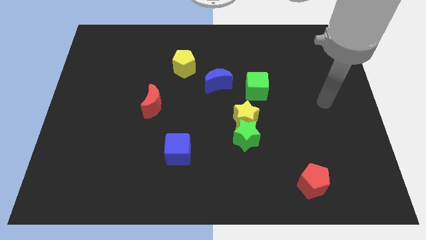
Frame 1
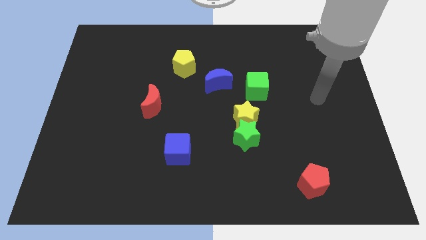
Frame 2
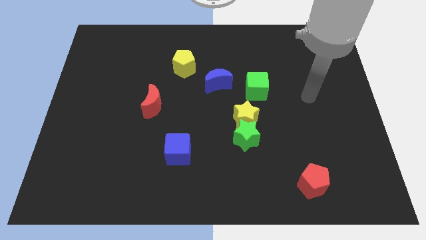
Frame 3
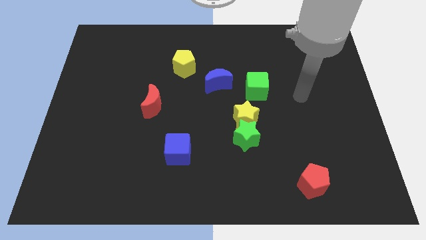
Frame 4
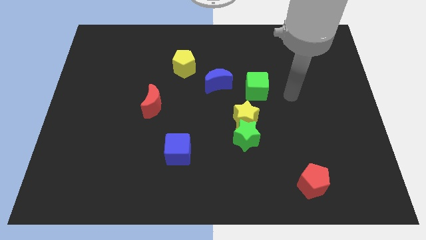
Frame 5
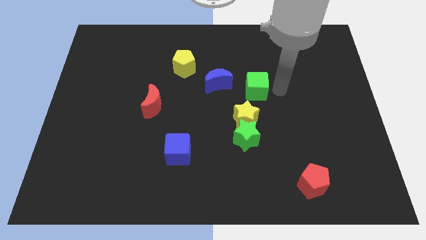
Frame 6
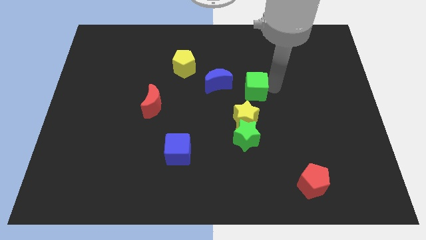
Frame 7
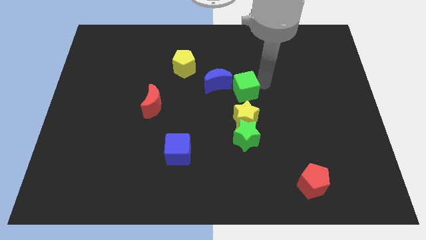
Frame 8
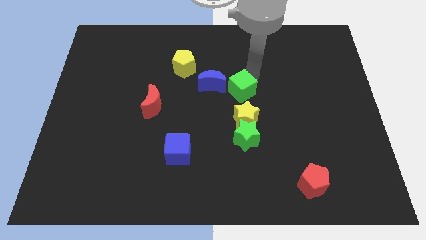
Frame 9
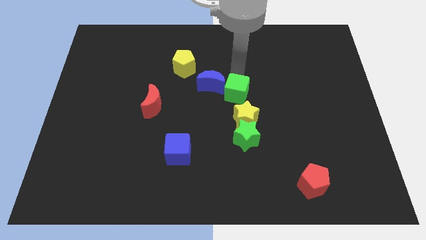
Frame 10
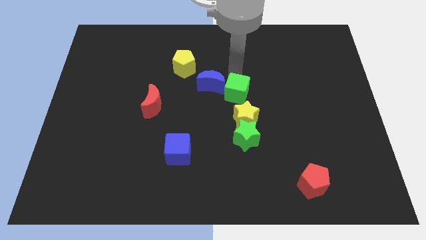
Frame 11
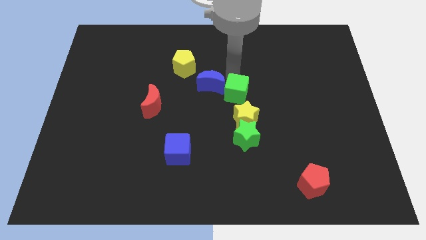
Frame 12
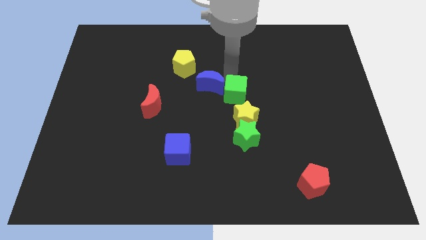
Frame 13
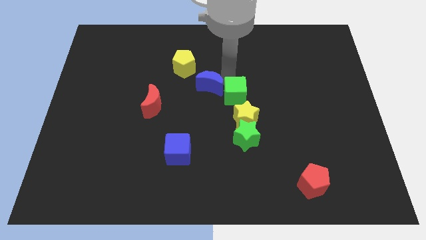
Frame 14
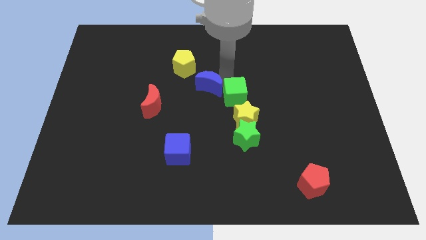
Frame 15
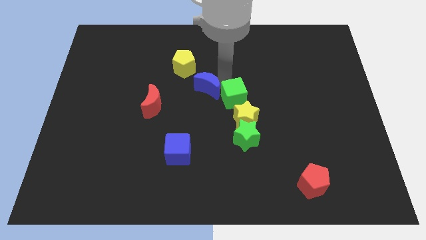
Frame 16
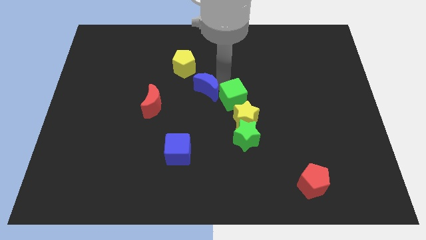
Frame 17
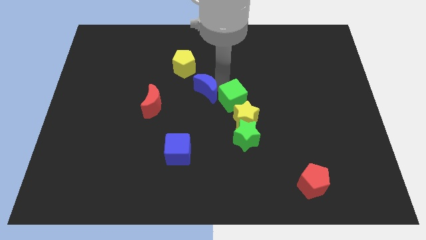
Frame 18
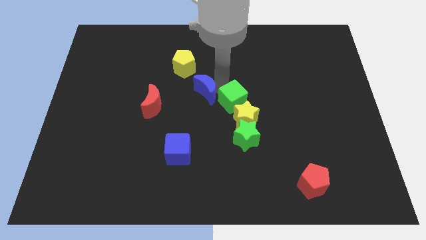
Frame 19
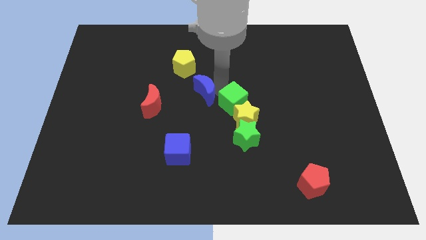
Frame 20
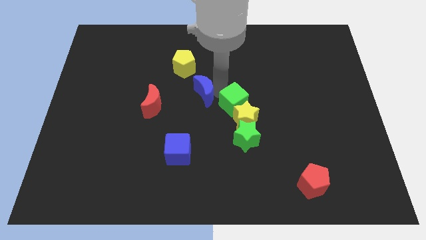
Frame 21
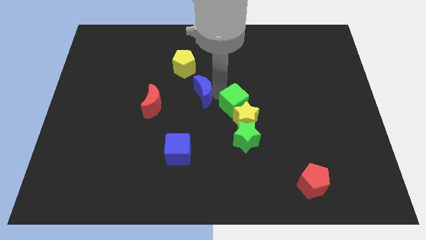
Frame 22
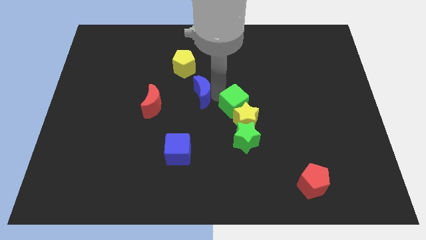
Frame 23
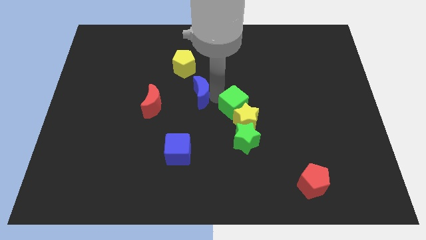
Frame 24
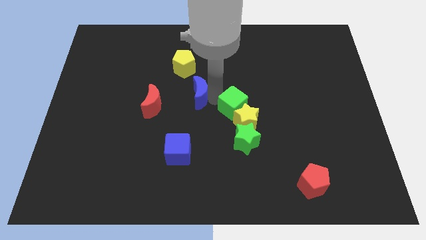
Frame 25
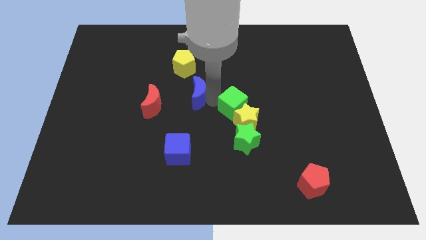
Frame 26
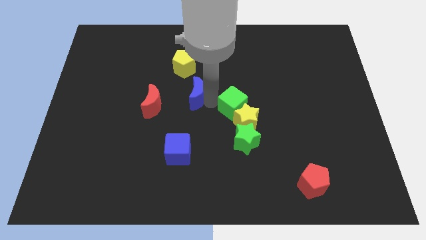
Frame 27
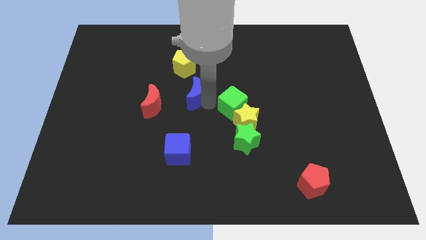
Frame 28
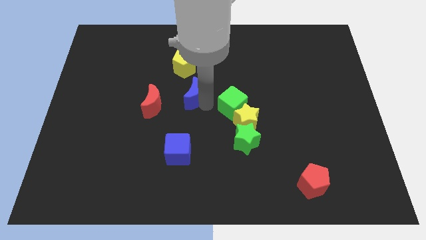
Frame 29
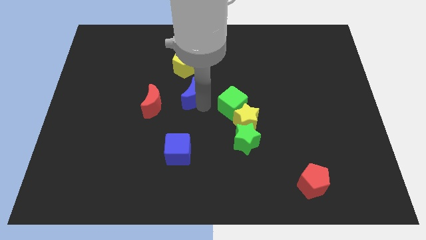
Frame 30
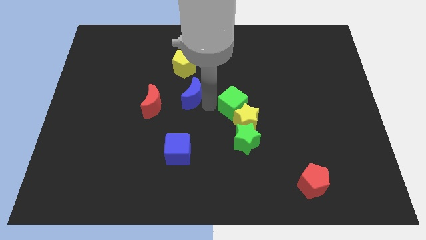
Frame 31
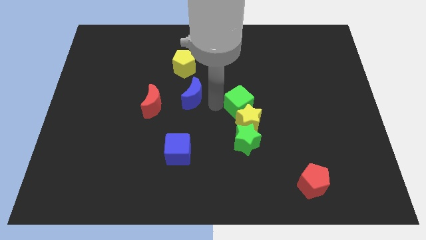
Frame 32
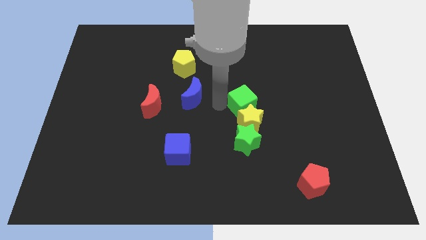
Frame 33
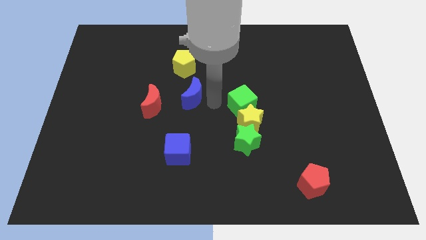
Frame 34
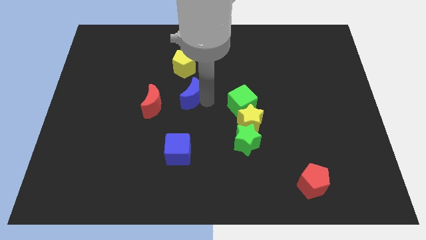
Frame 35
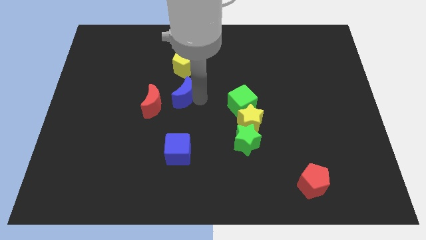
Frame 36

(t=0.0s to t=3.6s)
push the blue moon left somewhat

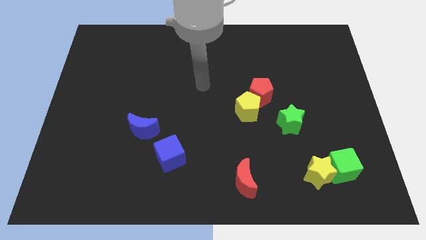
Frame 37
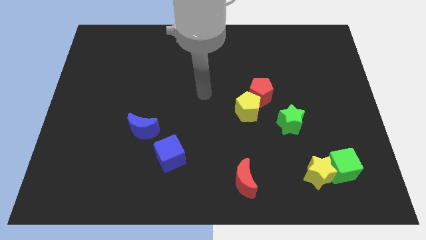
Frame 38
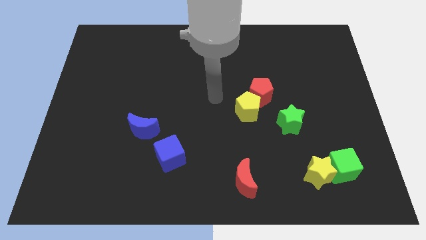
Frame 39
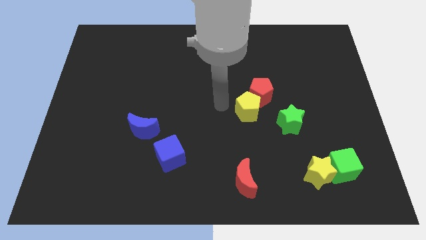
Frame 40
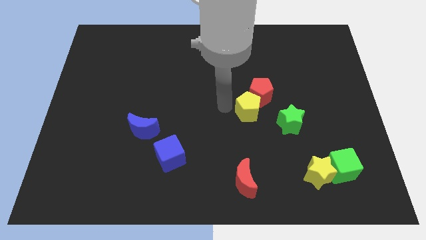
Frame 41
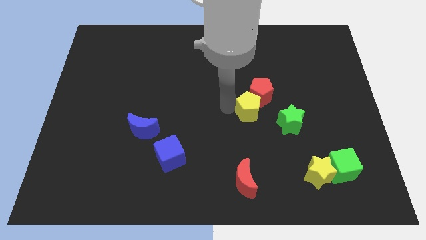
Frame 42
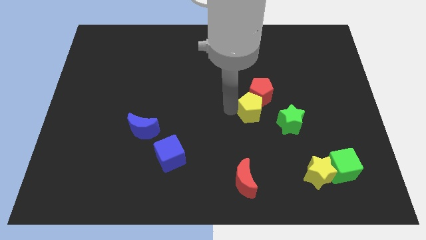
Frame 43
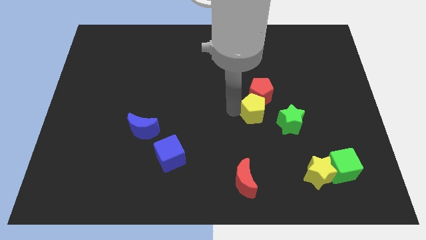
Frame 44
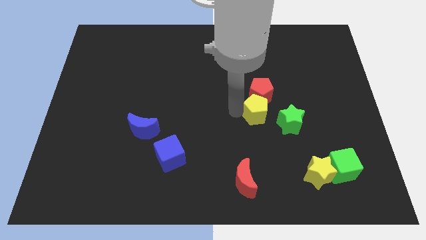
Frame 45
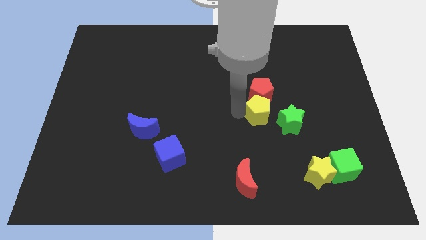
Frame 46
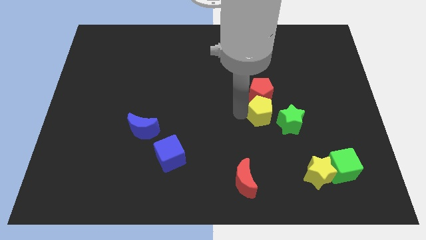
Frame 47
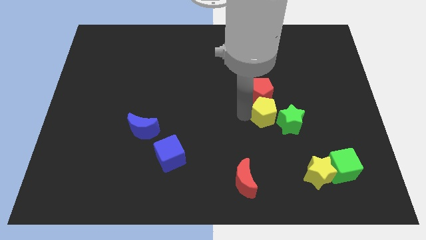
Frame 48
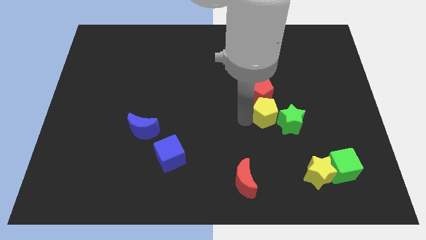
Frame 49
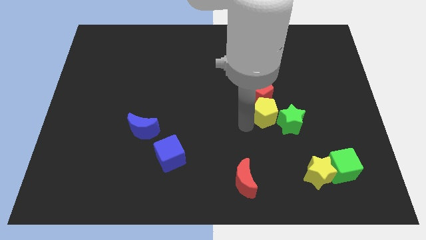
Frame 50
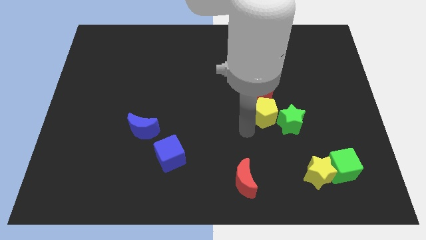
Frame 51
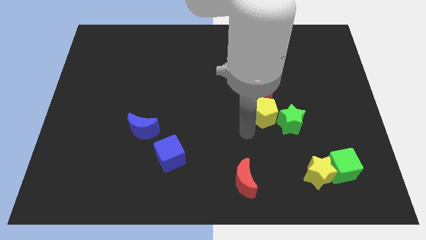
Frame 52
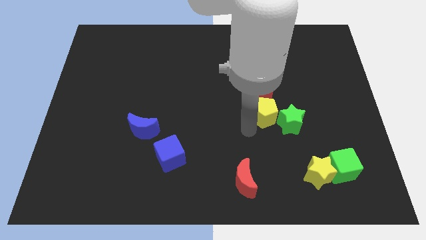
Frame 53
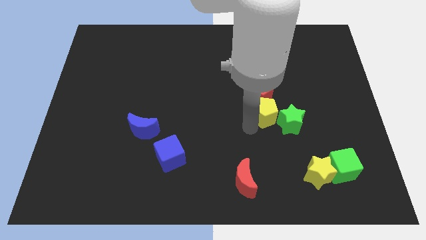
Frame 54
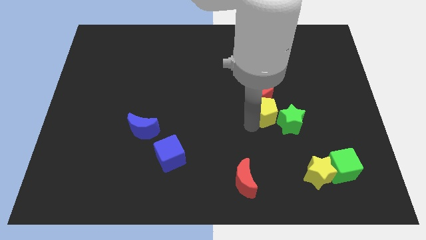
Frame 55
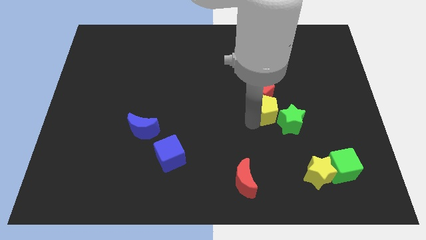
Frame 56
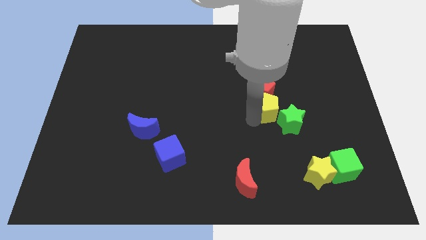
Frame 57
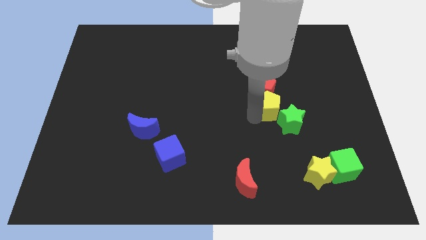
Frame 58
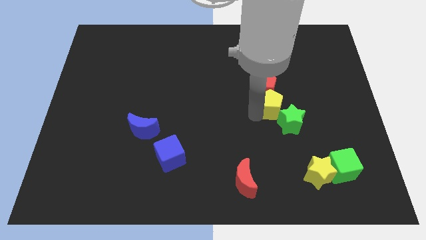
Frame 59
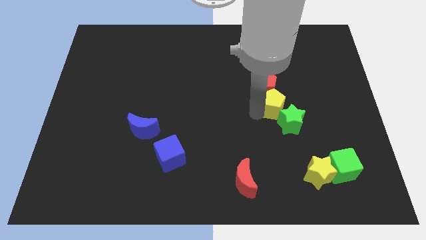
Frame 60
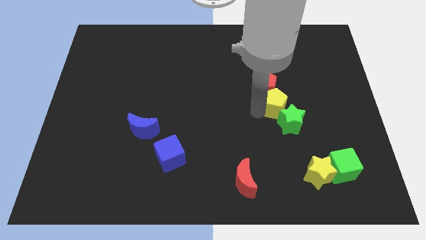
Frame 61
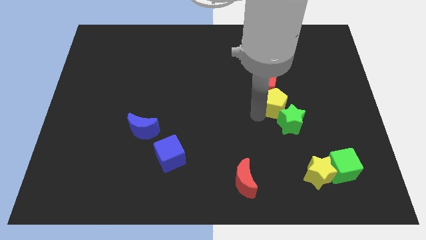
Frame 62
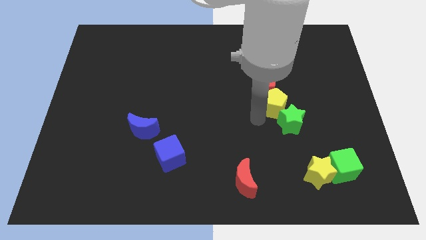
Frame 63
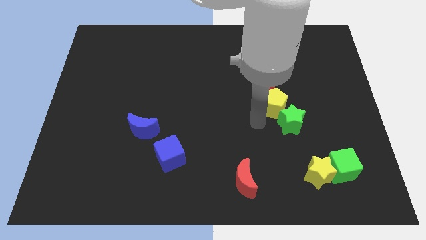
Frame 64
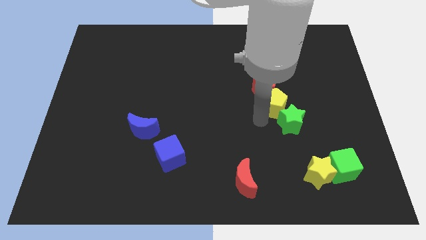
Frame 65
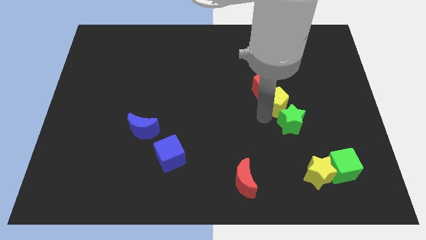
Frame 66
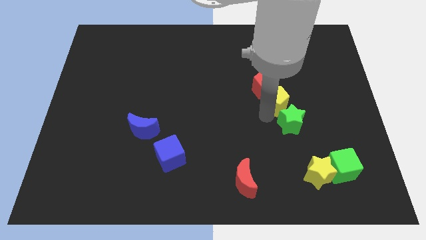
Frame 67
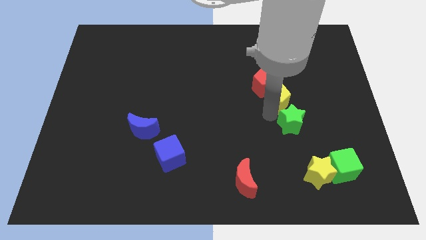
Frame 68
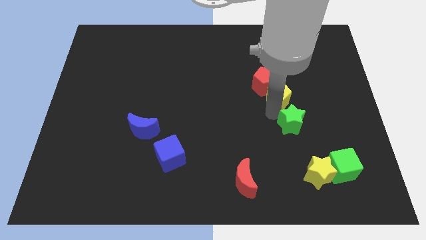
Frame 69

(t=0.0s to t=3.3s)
slide the yellow pentagon slightly upwards and right diagonally

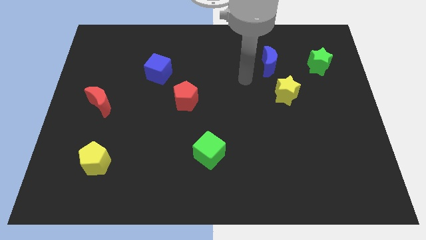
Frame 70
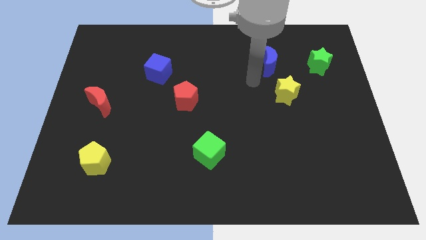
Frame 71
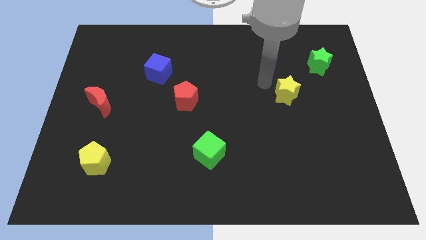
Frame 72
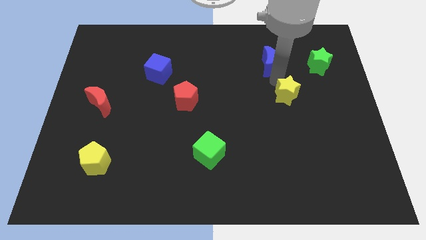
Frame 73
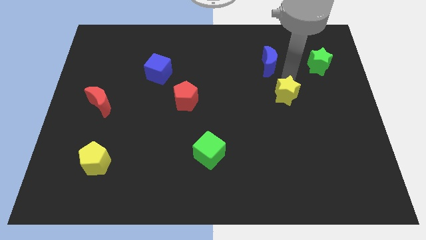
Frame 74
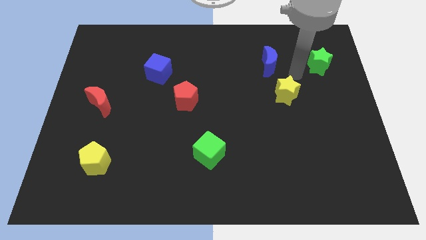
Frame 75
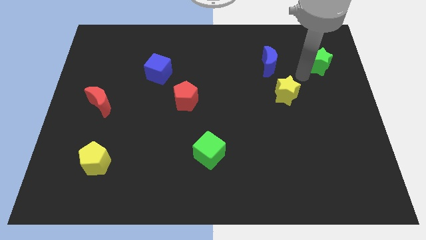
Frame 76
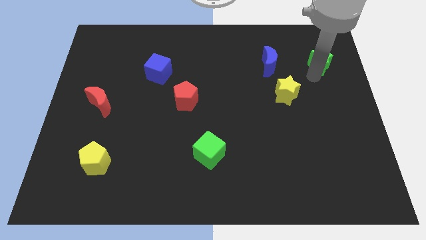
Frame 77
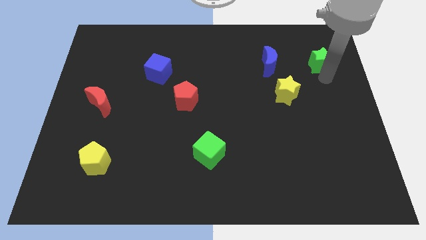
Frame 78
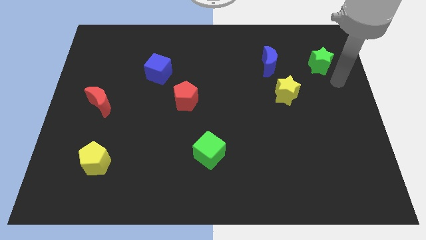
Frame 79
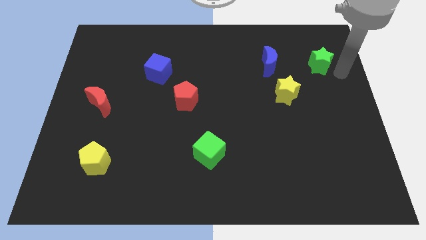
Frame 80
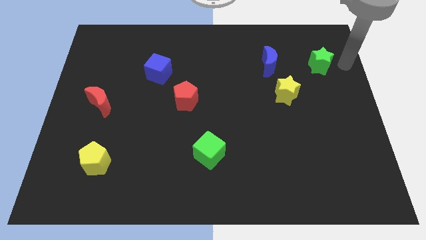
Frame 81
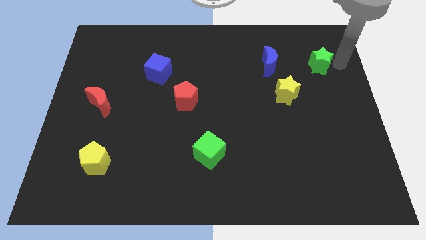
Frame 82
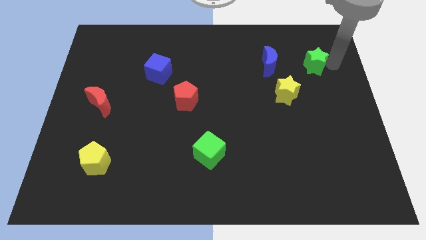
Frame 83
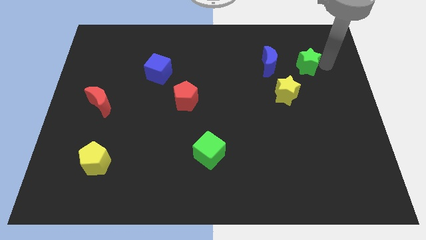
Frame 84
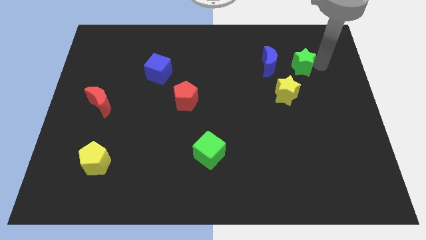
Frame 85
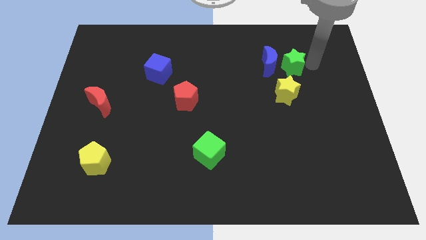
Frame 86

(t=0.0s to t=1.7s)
slightly push the green star left
